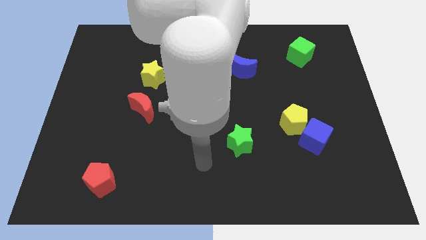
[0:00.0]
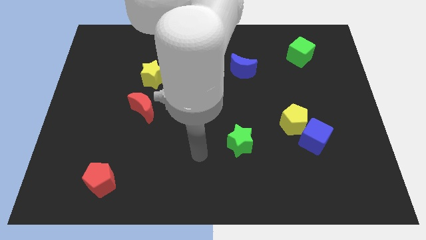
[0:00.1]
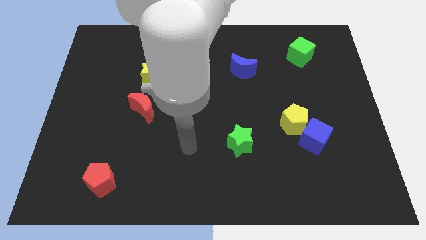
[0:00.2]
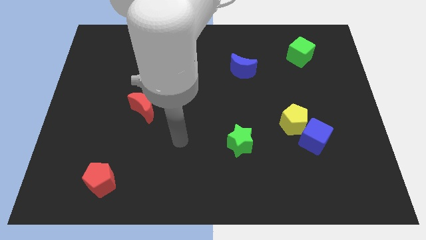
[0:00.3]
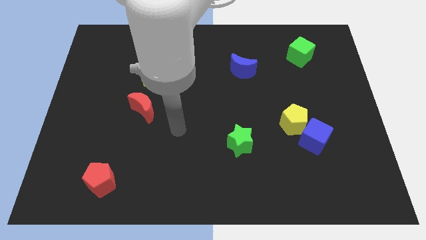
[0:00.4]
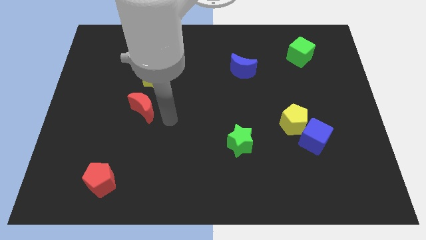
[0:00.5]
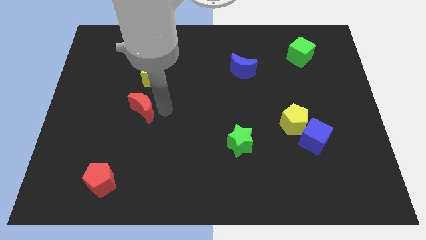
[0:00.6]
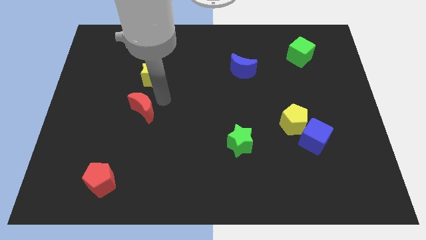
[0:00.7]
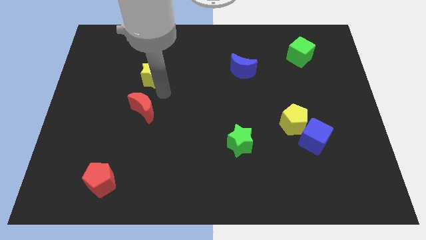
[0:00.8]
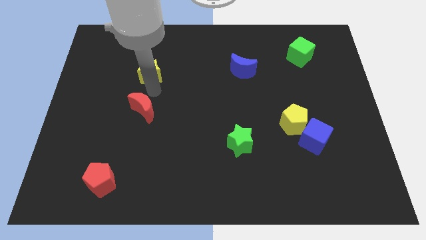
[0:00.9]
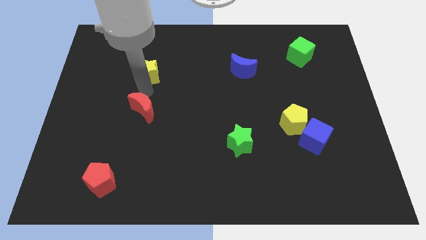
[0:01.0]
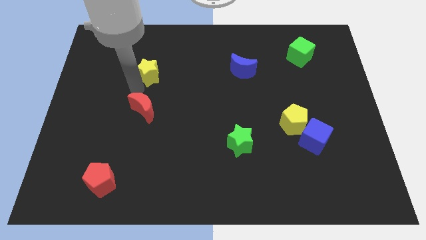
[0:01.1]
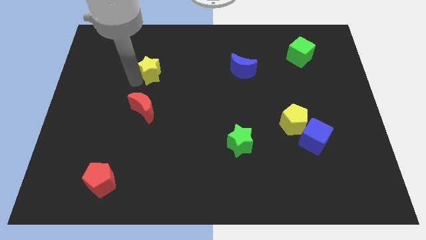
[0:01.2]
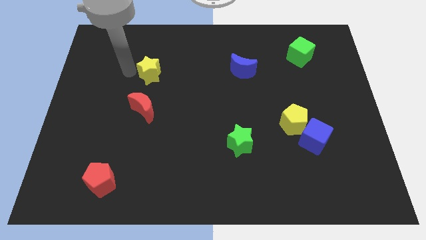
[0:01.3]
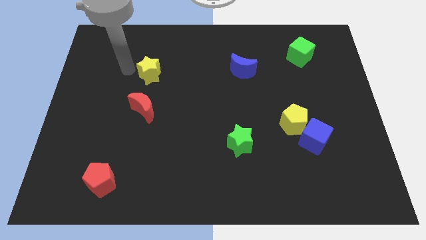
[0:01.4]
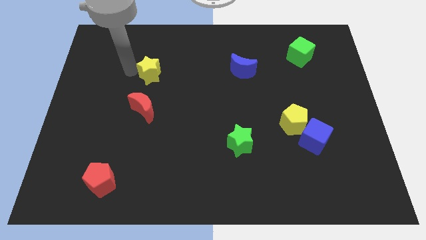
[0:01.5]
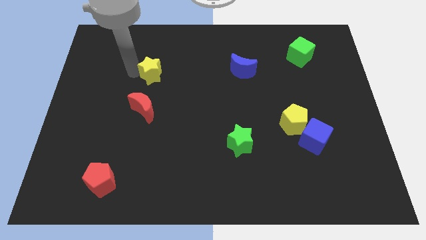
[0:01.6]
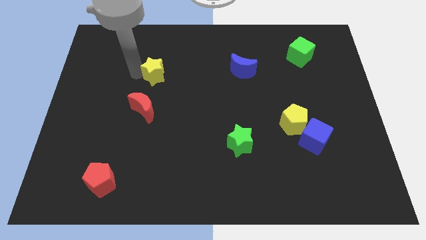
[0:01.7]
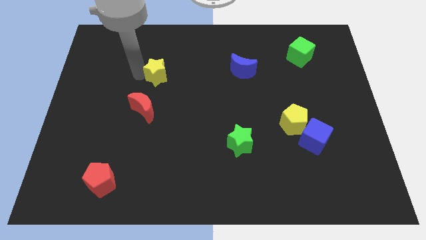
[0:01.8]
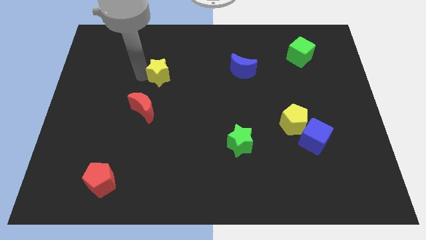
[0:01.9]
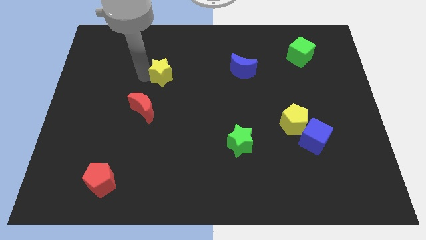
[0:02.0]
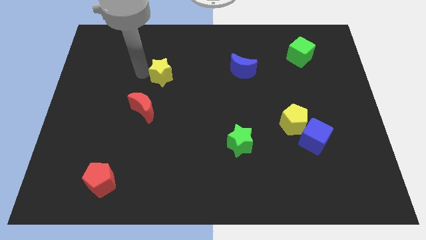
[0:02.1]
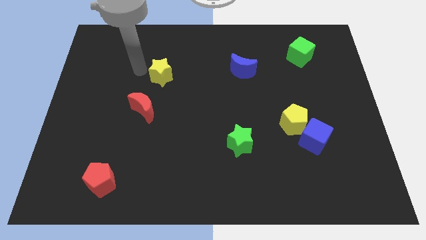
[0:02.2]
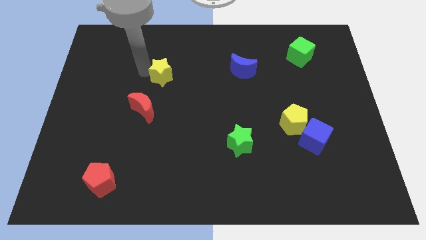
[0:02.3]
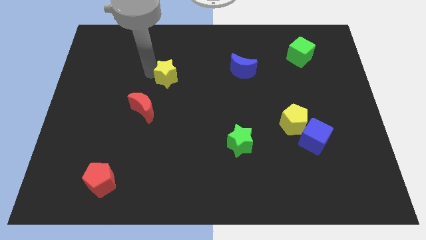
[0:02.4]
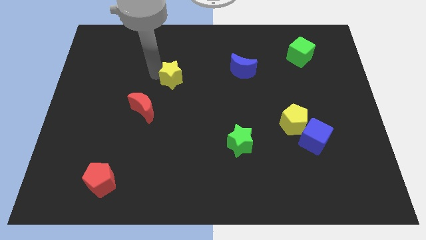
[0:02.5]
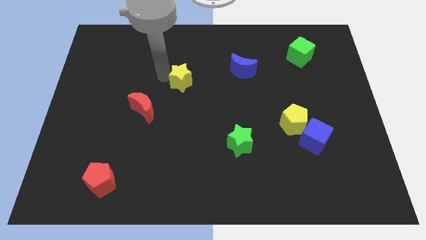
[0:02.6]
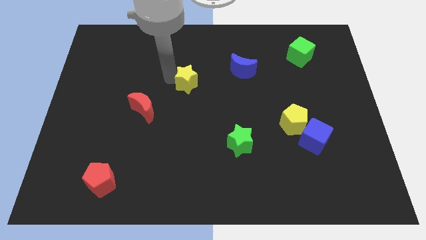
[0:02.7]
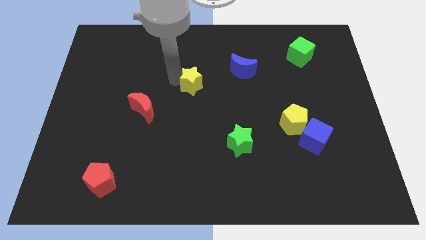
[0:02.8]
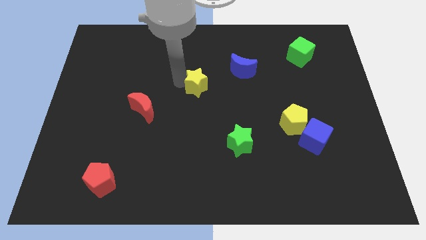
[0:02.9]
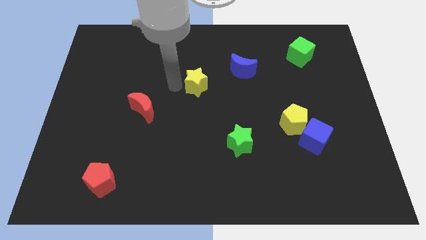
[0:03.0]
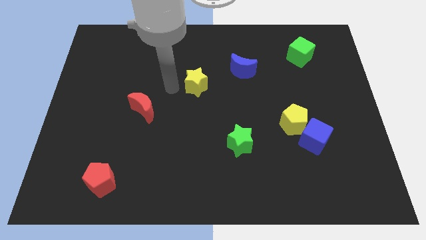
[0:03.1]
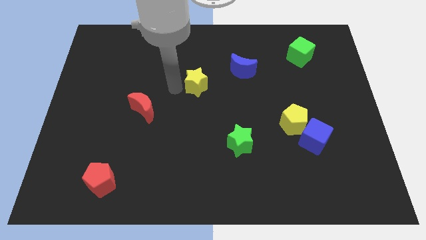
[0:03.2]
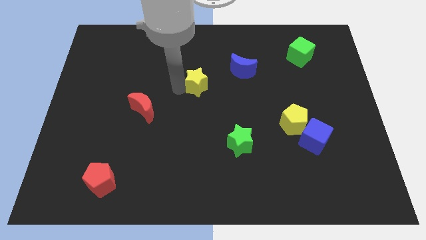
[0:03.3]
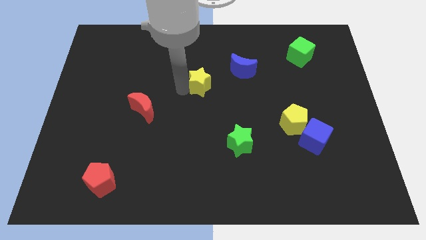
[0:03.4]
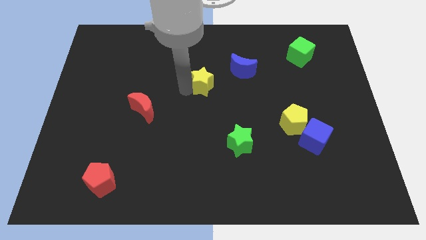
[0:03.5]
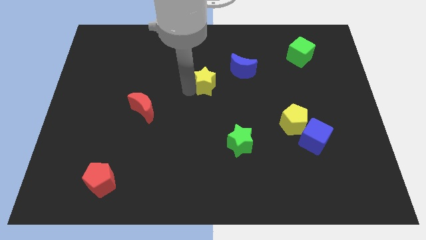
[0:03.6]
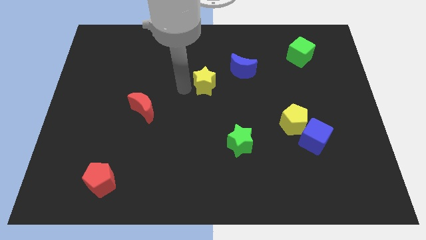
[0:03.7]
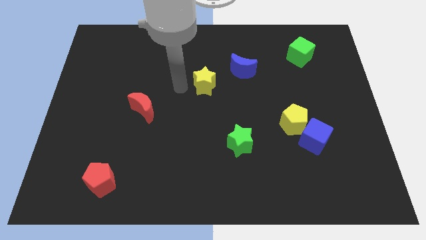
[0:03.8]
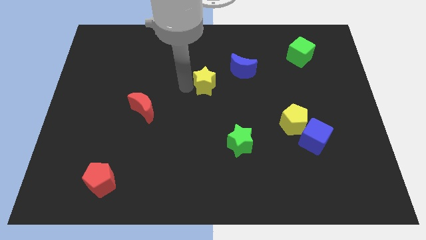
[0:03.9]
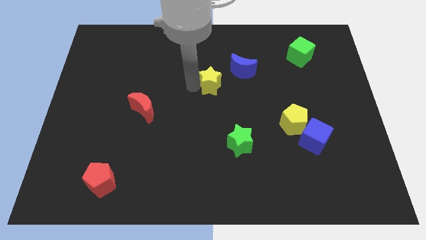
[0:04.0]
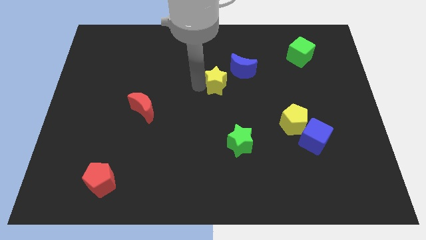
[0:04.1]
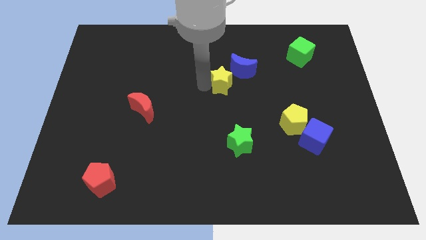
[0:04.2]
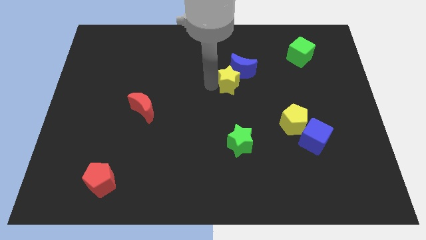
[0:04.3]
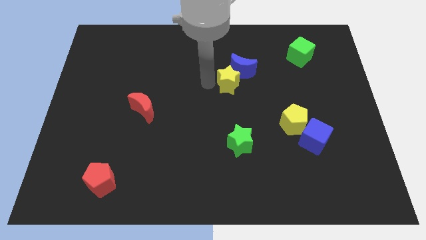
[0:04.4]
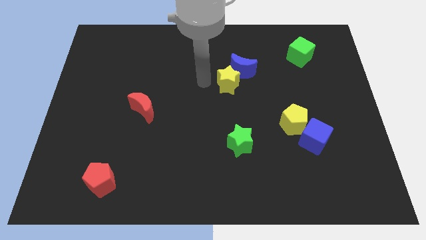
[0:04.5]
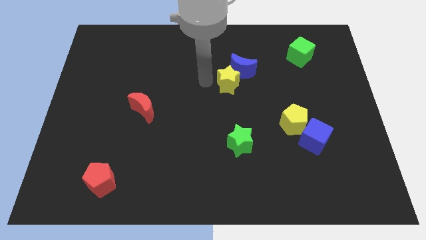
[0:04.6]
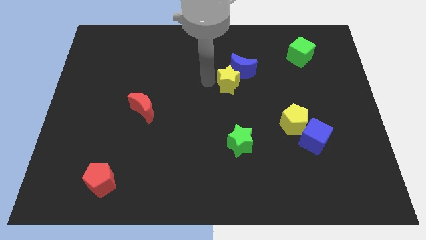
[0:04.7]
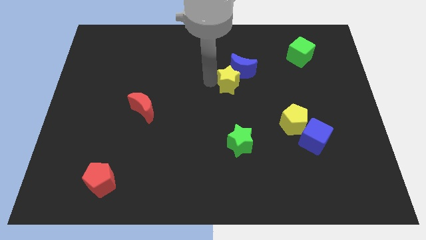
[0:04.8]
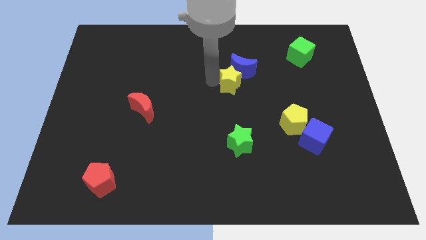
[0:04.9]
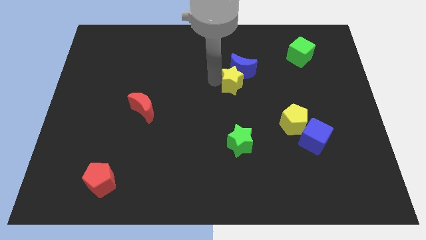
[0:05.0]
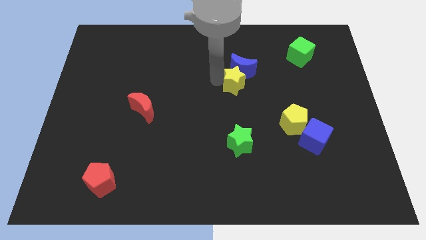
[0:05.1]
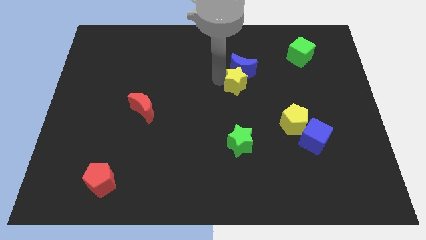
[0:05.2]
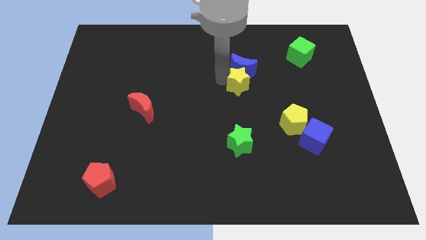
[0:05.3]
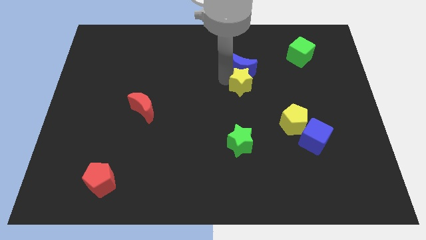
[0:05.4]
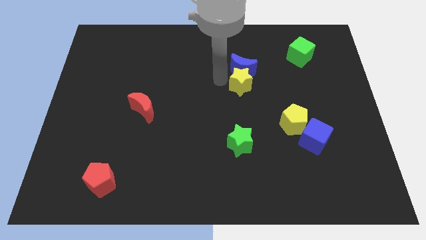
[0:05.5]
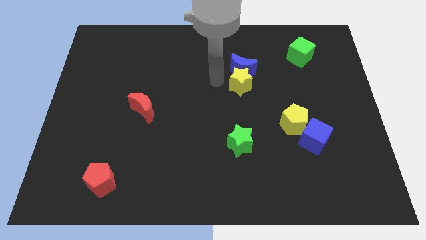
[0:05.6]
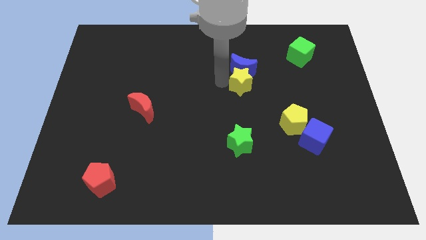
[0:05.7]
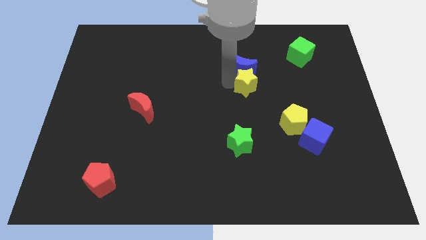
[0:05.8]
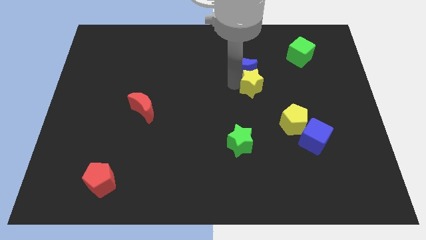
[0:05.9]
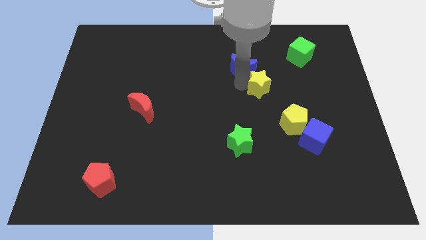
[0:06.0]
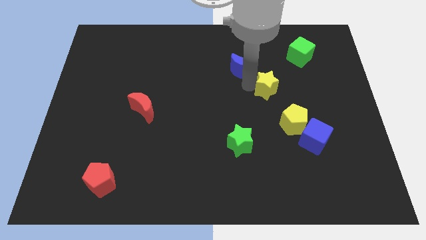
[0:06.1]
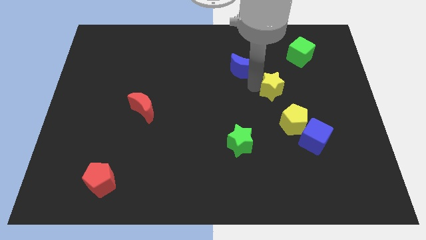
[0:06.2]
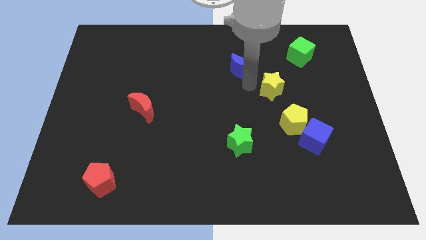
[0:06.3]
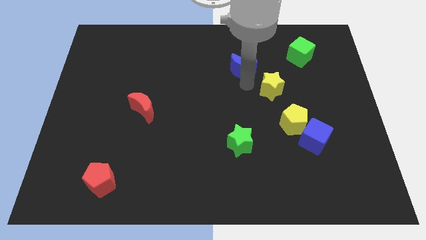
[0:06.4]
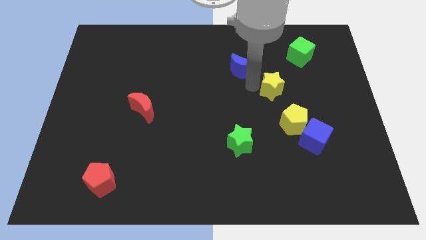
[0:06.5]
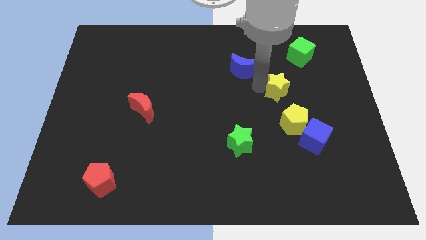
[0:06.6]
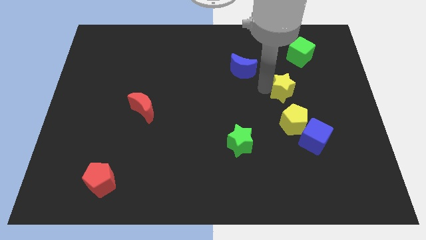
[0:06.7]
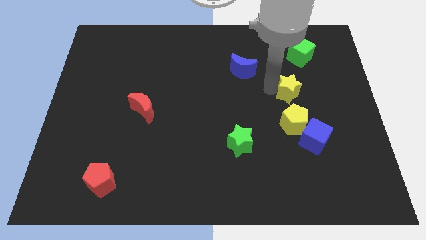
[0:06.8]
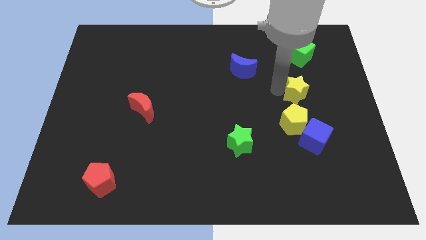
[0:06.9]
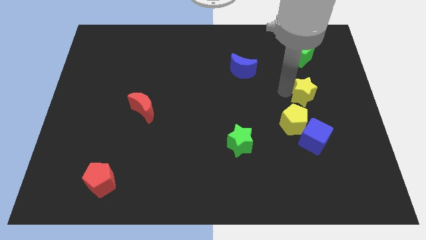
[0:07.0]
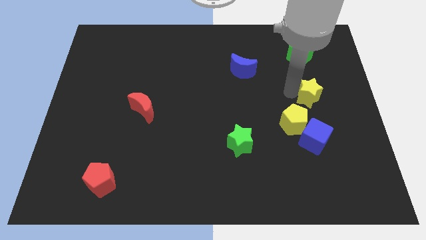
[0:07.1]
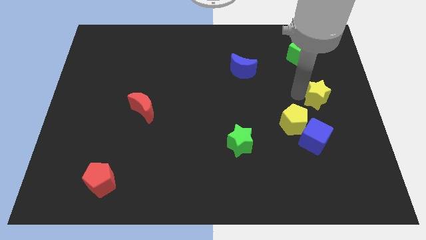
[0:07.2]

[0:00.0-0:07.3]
push the yellow star to the center right
